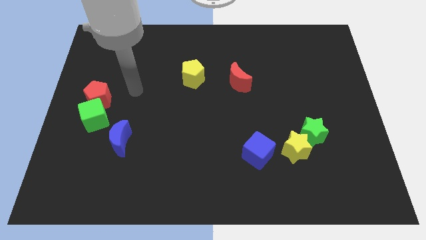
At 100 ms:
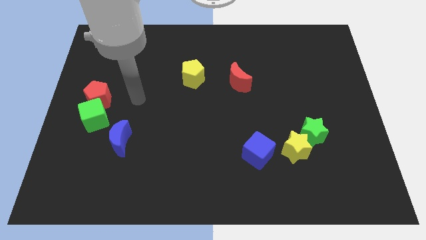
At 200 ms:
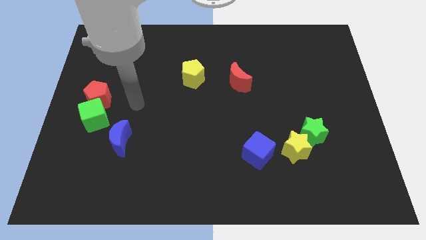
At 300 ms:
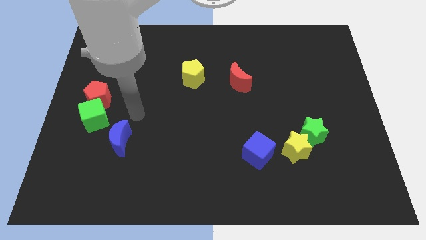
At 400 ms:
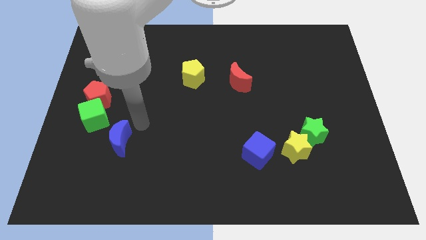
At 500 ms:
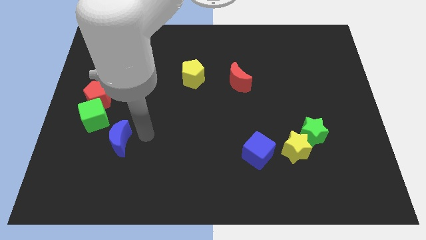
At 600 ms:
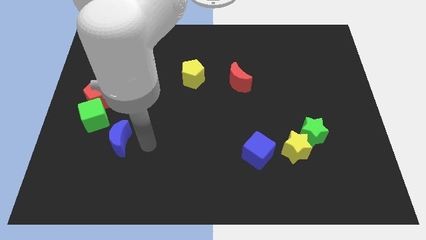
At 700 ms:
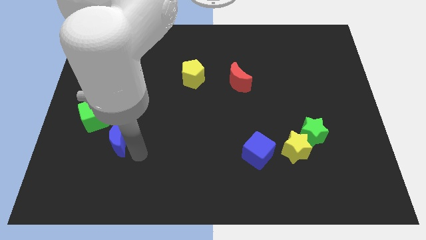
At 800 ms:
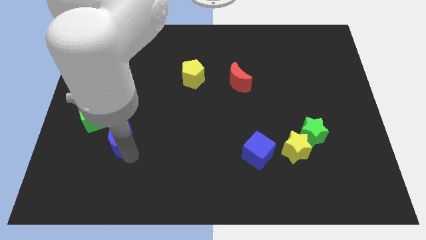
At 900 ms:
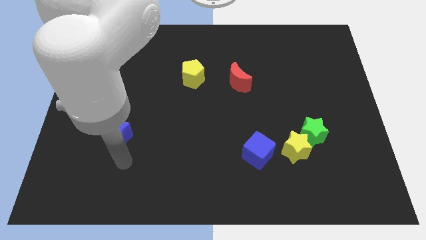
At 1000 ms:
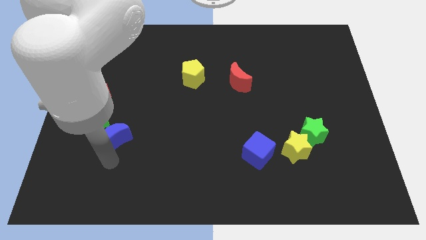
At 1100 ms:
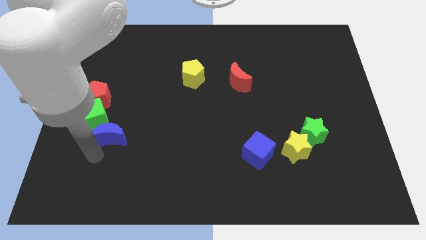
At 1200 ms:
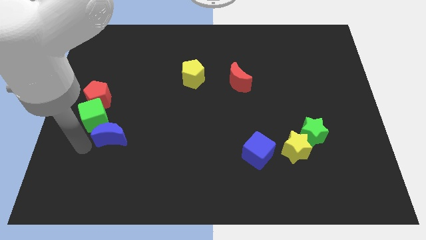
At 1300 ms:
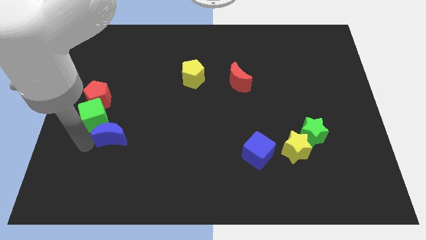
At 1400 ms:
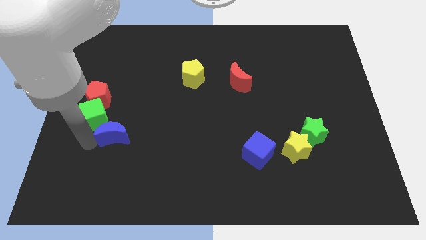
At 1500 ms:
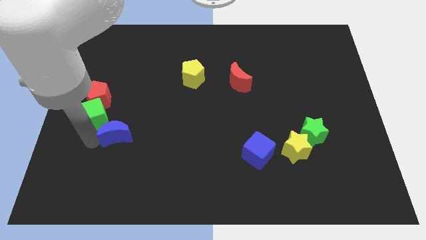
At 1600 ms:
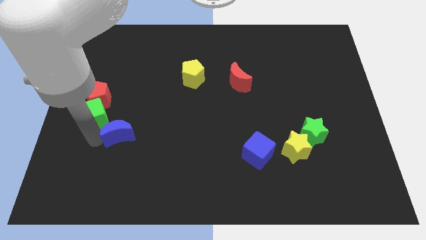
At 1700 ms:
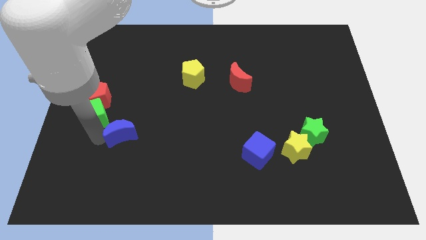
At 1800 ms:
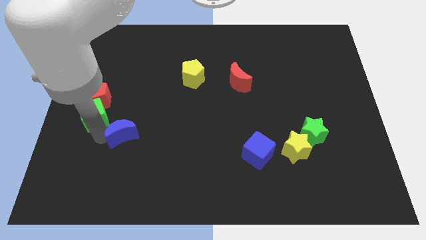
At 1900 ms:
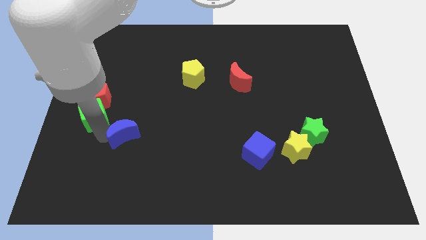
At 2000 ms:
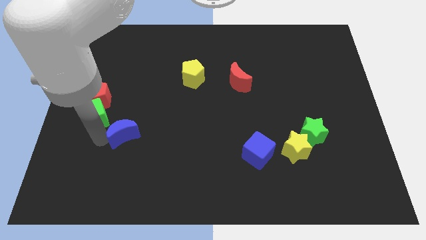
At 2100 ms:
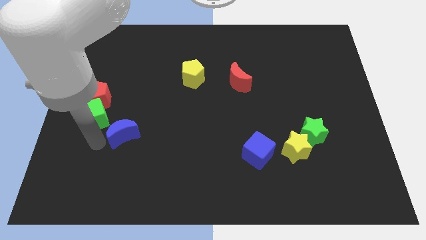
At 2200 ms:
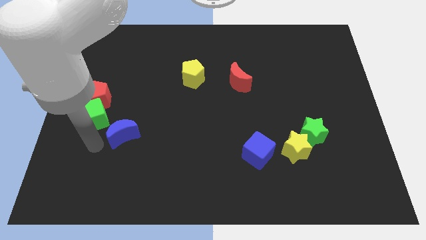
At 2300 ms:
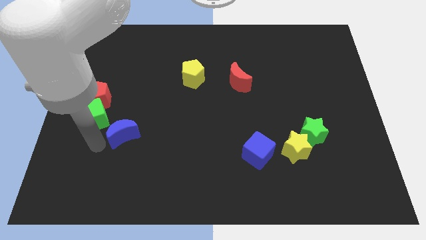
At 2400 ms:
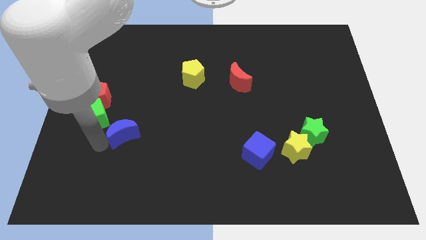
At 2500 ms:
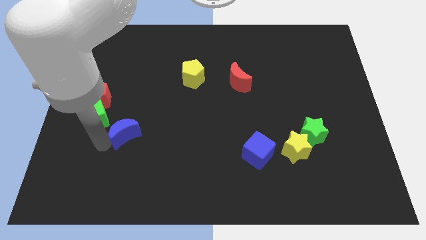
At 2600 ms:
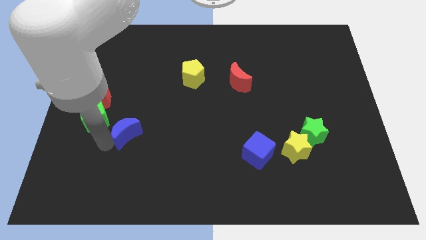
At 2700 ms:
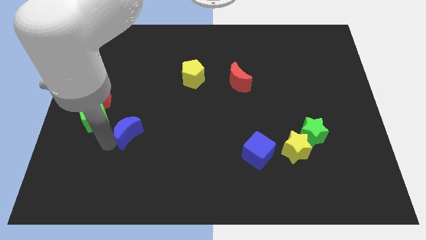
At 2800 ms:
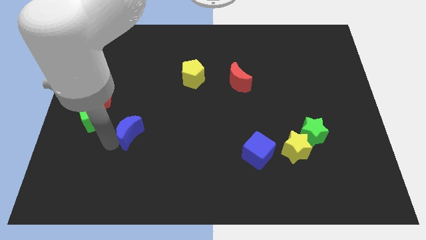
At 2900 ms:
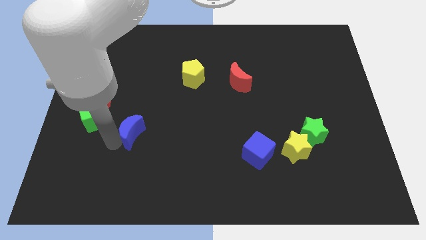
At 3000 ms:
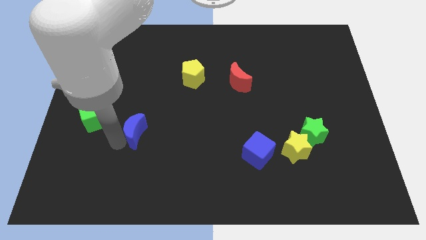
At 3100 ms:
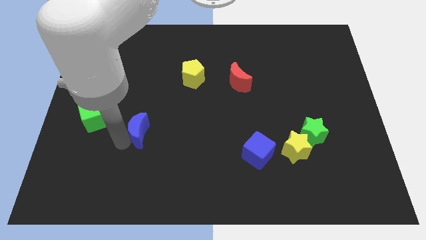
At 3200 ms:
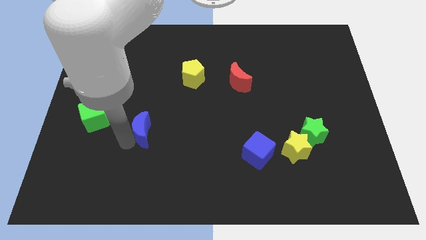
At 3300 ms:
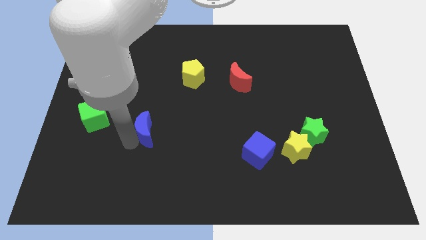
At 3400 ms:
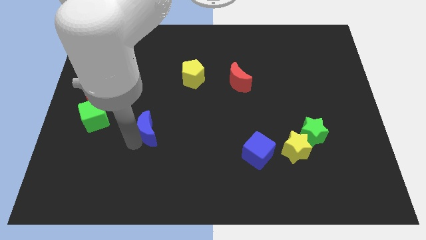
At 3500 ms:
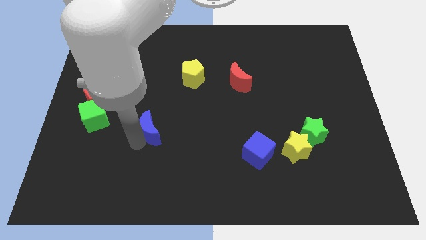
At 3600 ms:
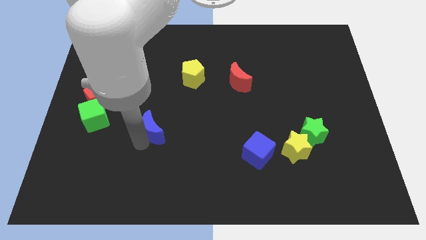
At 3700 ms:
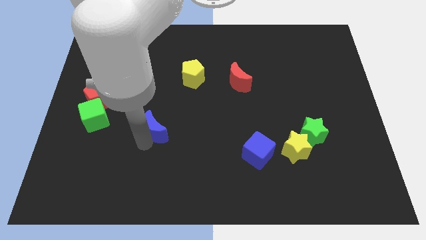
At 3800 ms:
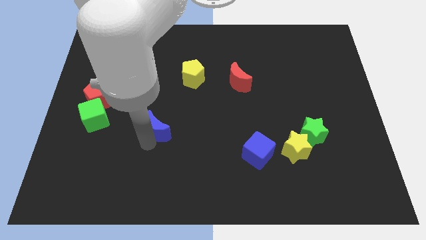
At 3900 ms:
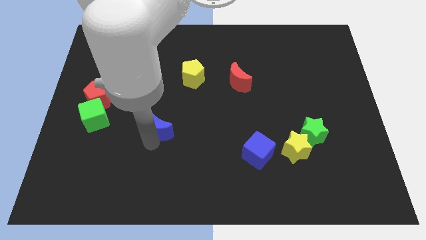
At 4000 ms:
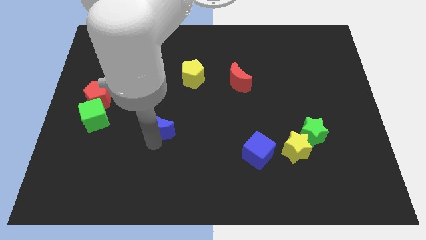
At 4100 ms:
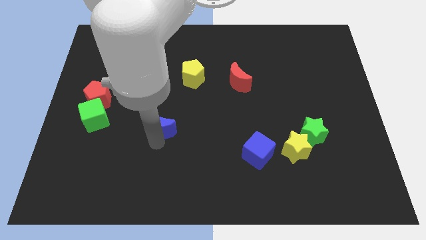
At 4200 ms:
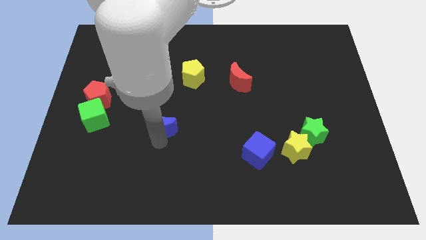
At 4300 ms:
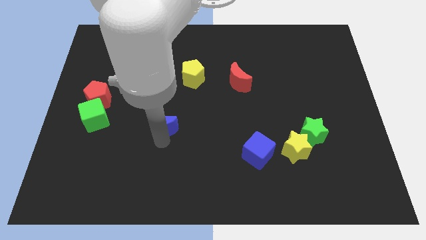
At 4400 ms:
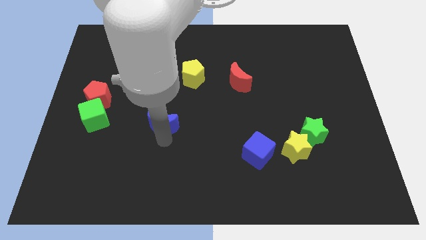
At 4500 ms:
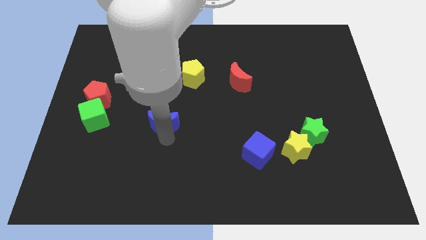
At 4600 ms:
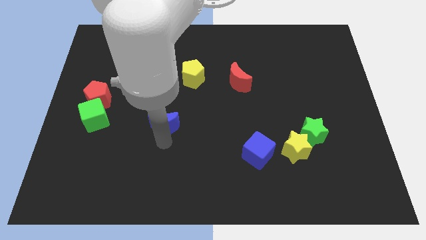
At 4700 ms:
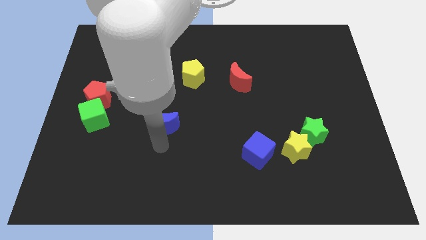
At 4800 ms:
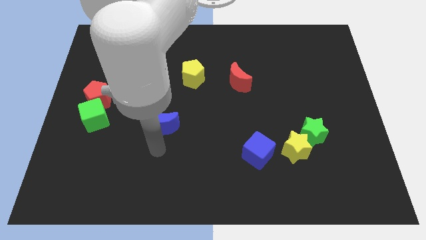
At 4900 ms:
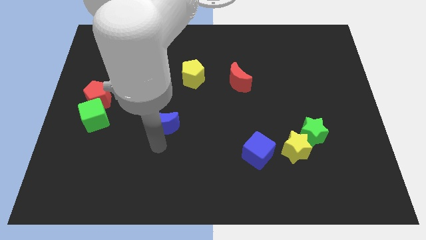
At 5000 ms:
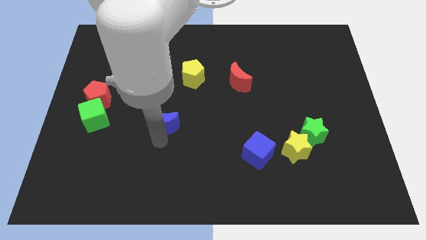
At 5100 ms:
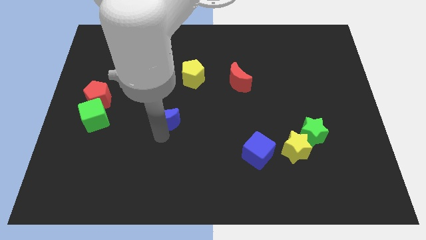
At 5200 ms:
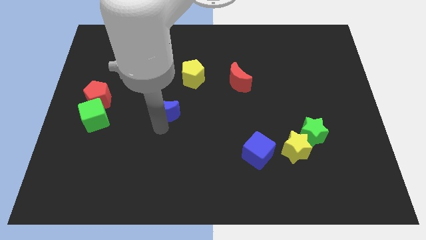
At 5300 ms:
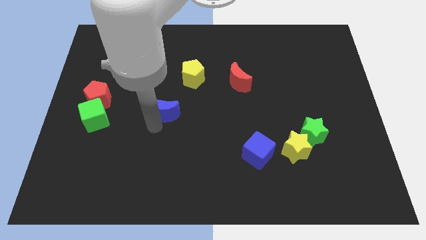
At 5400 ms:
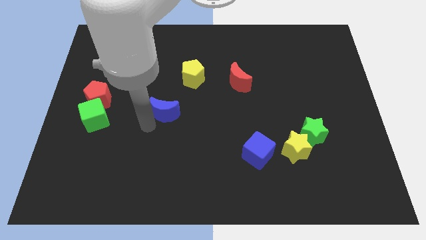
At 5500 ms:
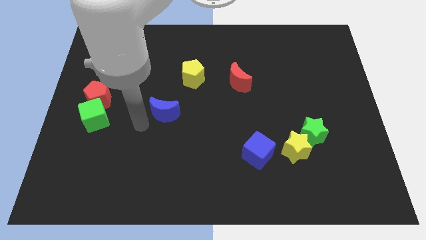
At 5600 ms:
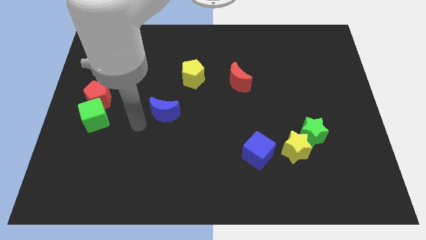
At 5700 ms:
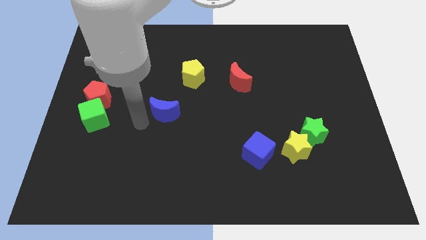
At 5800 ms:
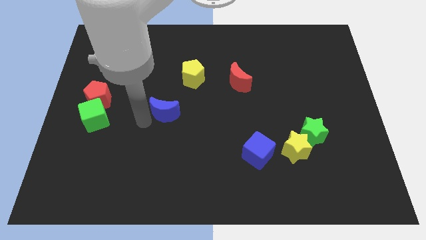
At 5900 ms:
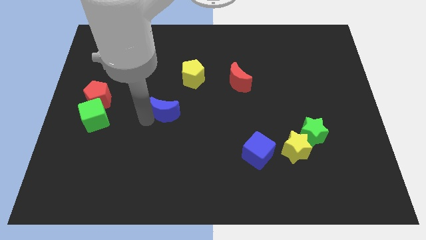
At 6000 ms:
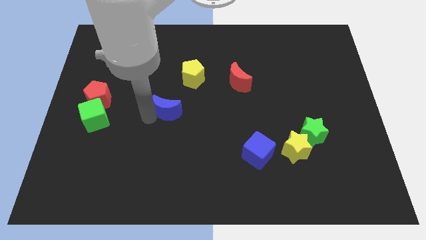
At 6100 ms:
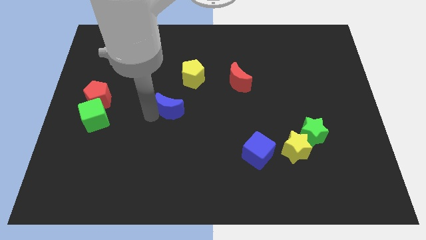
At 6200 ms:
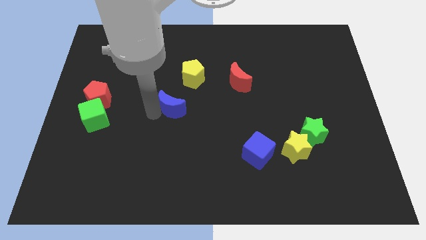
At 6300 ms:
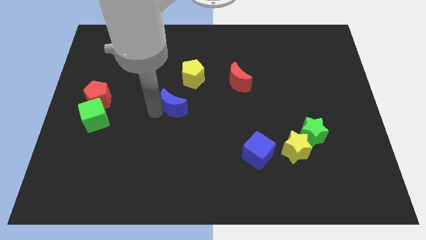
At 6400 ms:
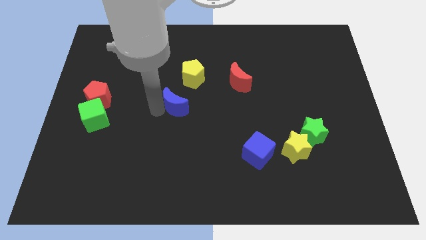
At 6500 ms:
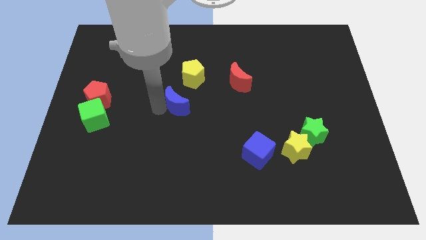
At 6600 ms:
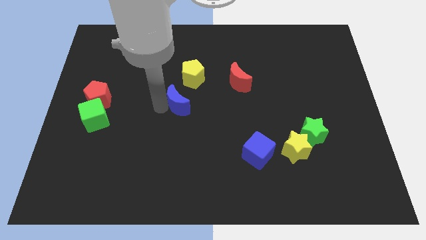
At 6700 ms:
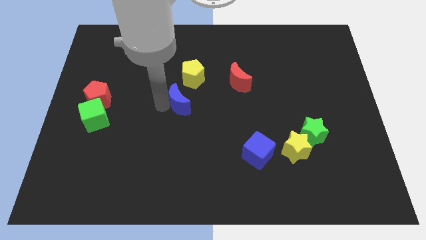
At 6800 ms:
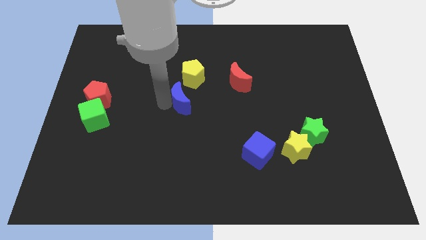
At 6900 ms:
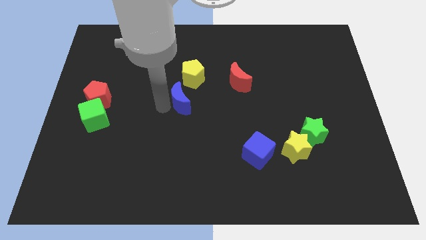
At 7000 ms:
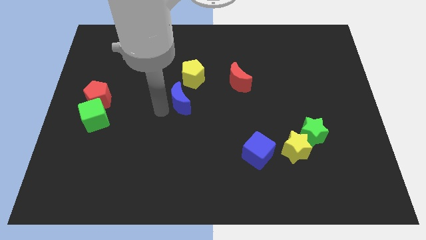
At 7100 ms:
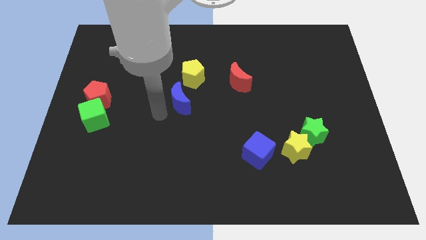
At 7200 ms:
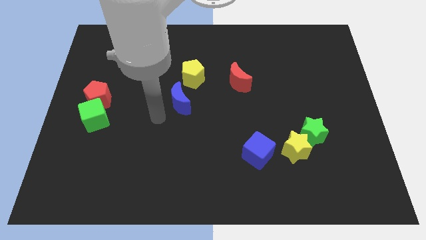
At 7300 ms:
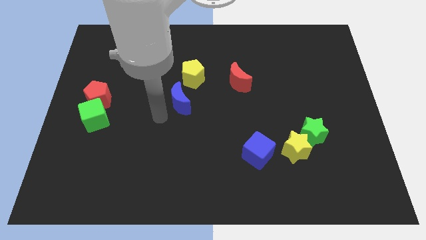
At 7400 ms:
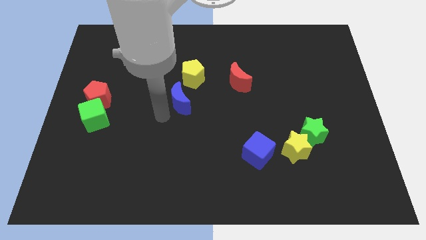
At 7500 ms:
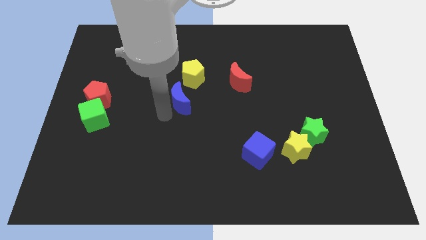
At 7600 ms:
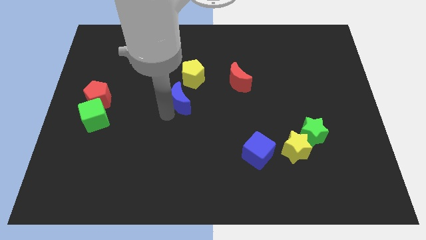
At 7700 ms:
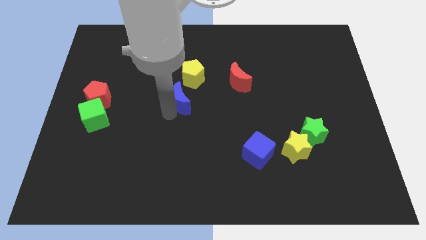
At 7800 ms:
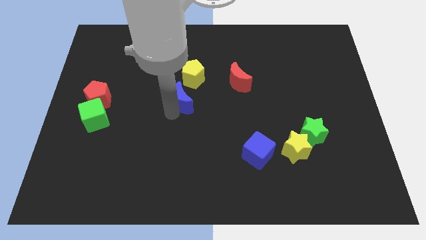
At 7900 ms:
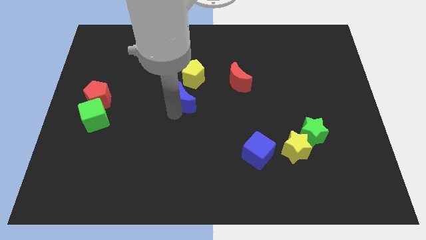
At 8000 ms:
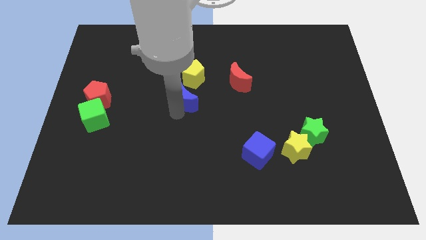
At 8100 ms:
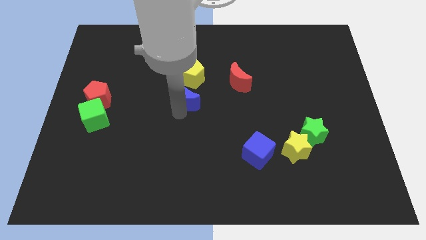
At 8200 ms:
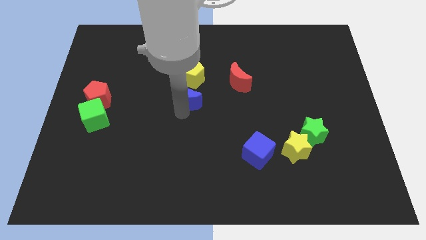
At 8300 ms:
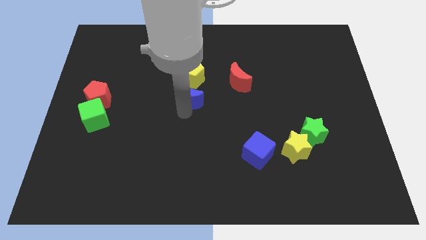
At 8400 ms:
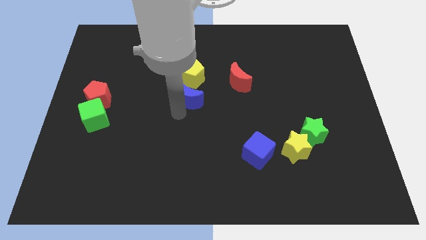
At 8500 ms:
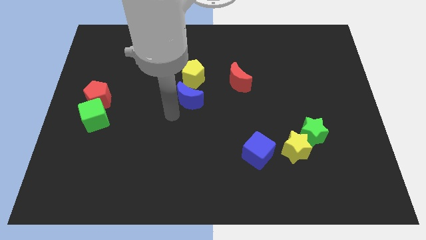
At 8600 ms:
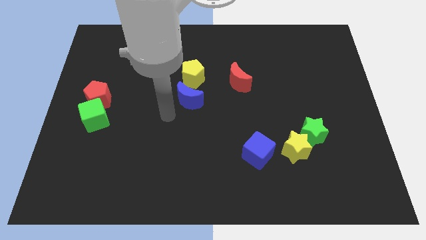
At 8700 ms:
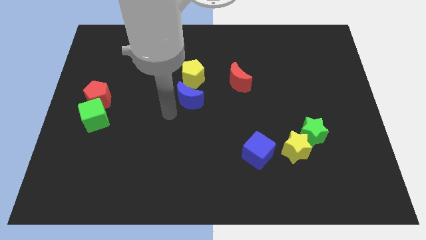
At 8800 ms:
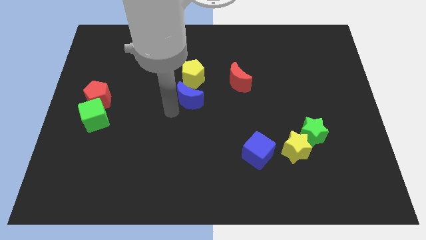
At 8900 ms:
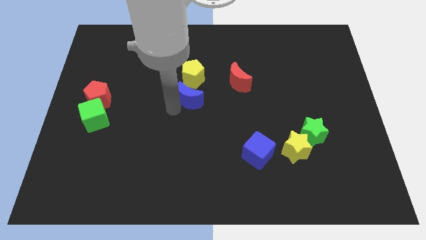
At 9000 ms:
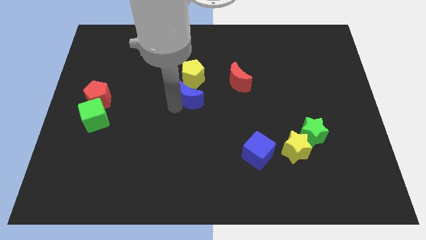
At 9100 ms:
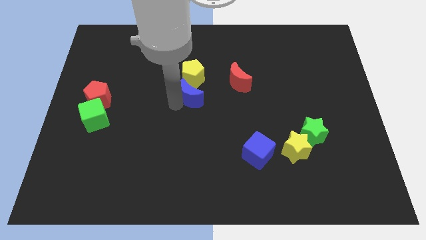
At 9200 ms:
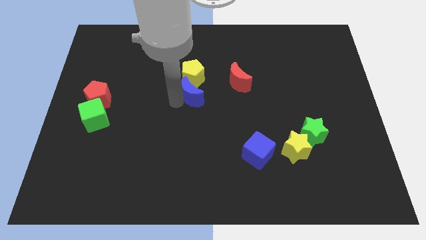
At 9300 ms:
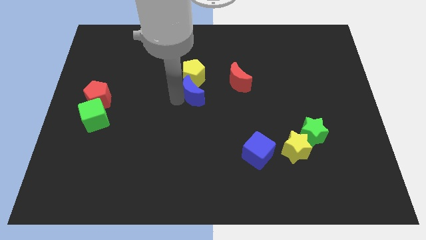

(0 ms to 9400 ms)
move the blue moon up and right
